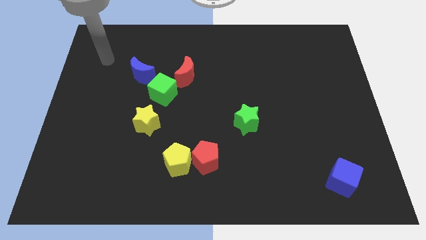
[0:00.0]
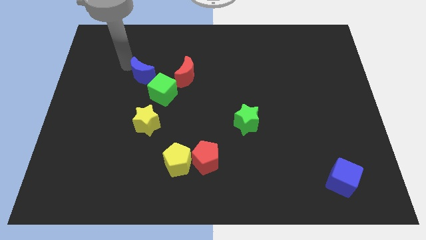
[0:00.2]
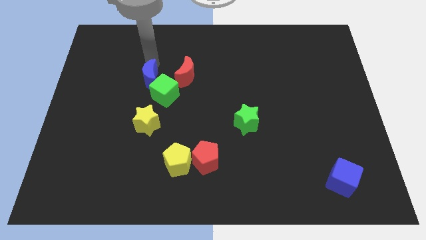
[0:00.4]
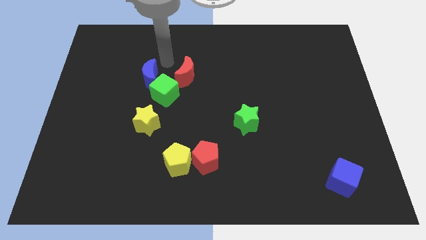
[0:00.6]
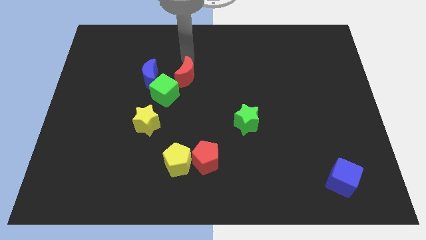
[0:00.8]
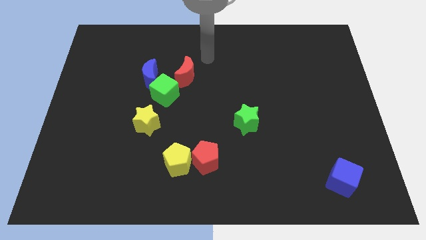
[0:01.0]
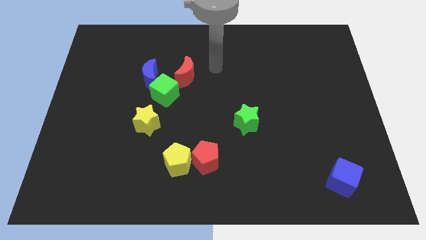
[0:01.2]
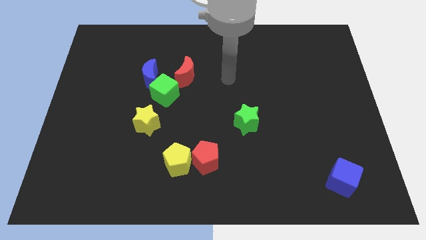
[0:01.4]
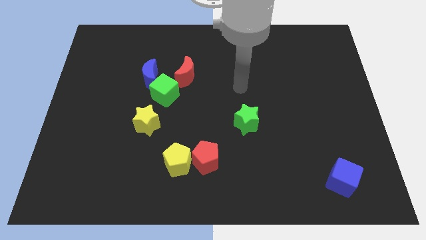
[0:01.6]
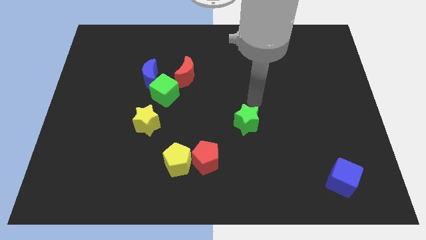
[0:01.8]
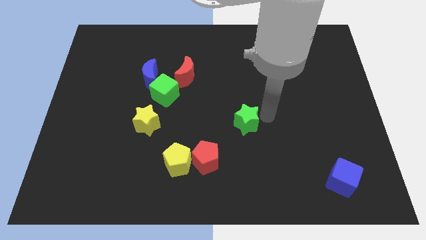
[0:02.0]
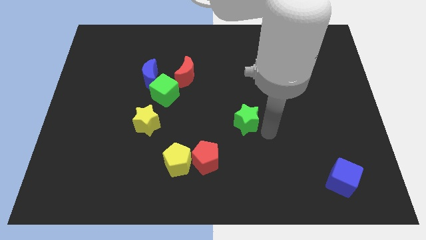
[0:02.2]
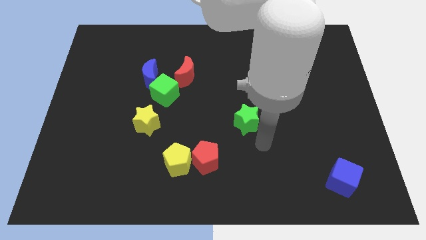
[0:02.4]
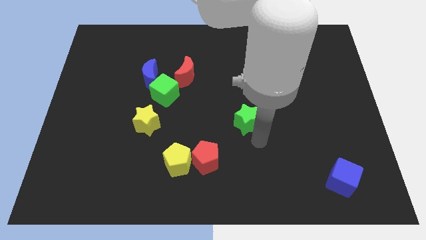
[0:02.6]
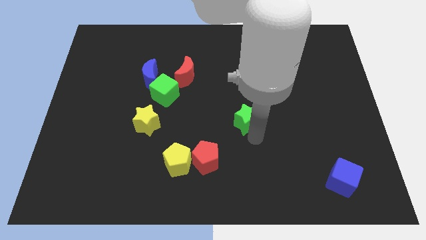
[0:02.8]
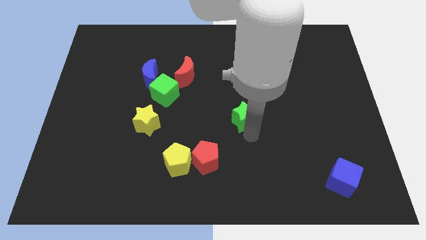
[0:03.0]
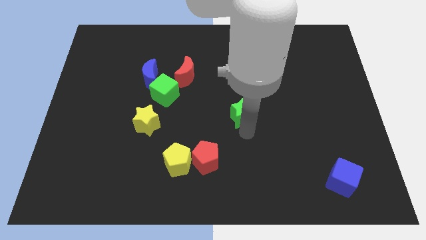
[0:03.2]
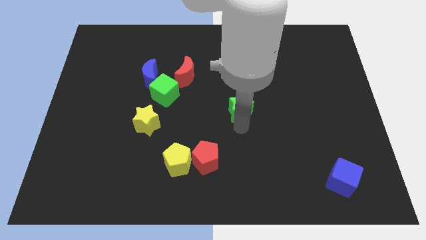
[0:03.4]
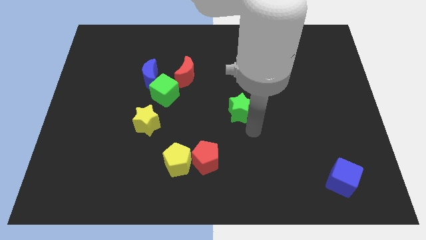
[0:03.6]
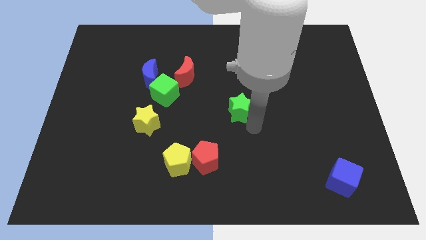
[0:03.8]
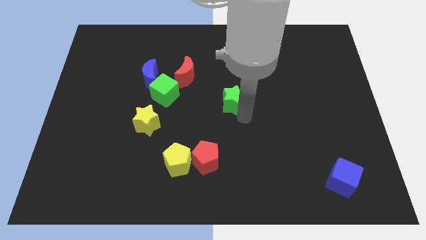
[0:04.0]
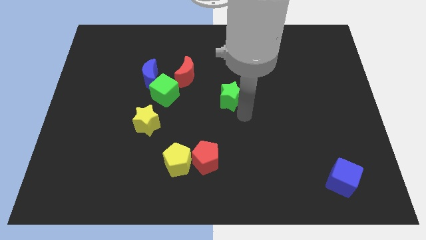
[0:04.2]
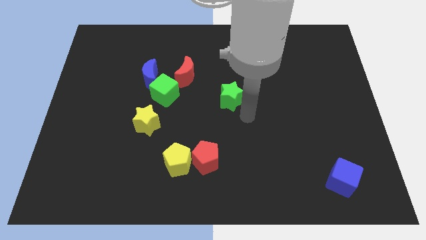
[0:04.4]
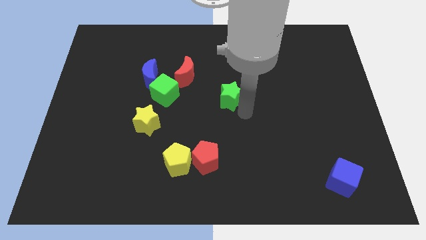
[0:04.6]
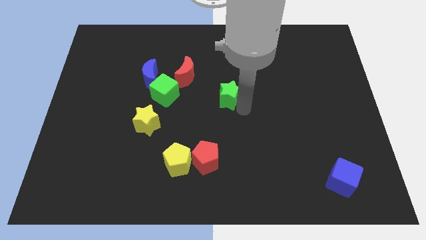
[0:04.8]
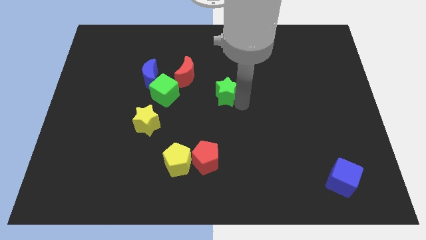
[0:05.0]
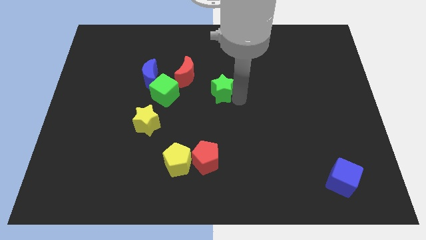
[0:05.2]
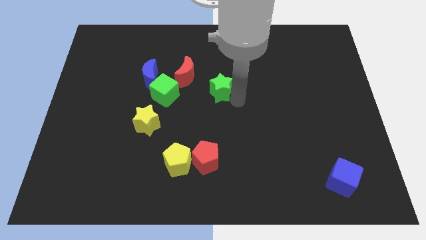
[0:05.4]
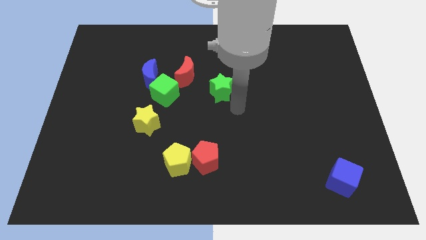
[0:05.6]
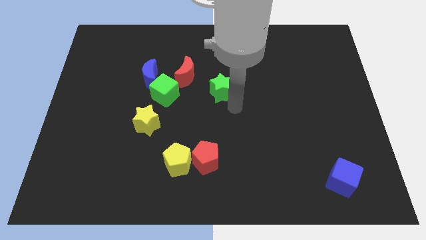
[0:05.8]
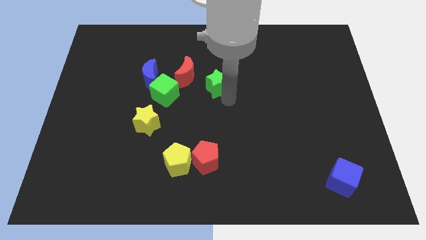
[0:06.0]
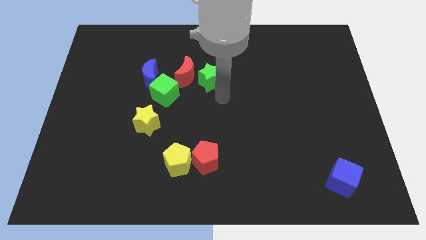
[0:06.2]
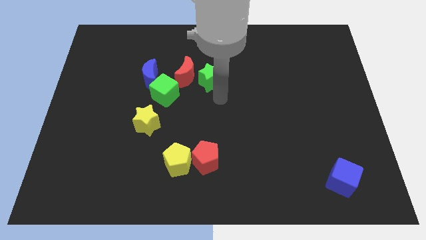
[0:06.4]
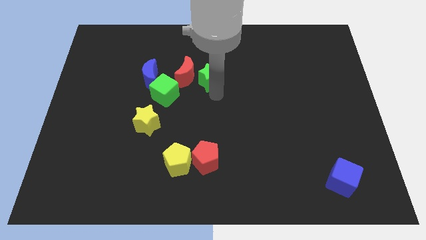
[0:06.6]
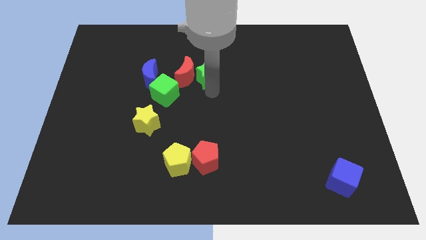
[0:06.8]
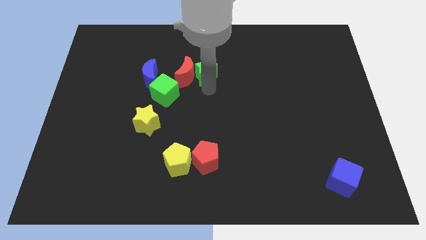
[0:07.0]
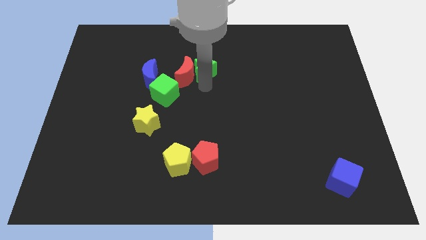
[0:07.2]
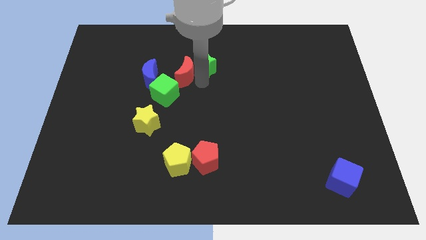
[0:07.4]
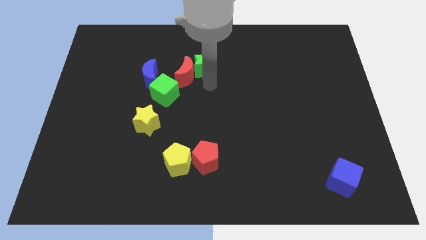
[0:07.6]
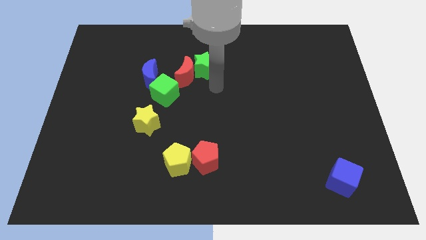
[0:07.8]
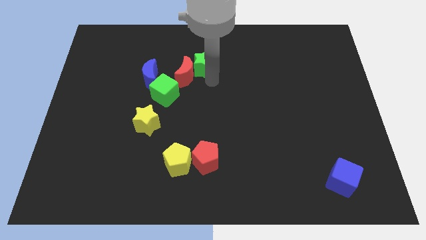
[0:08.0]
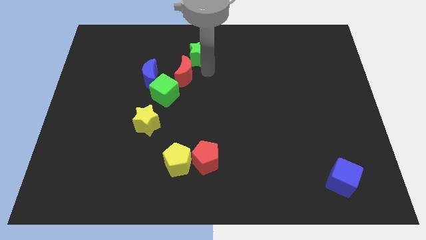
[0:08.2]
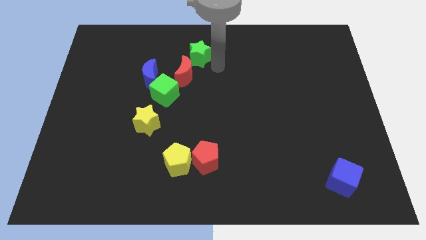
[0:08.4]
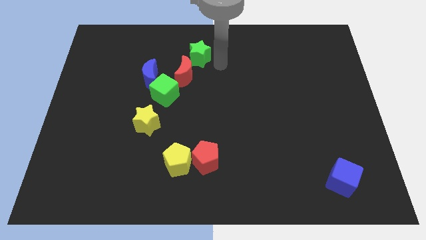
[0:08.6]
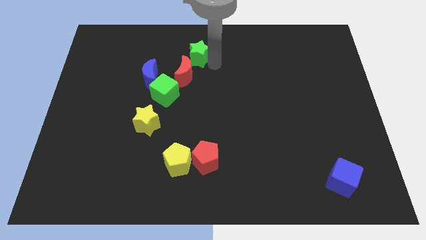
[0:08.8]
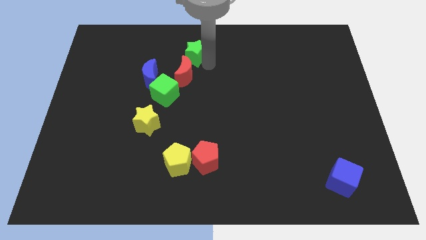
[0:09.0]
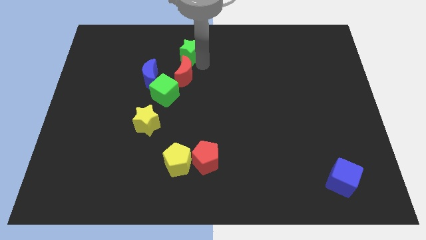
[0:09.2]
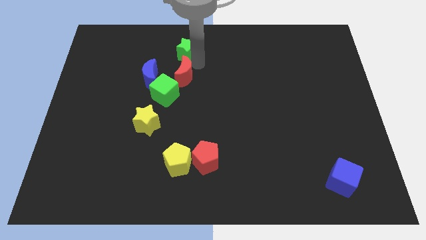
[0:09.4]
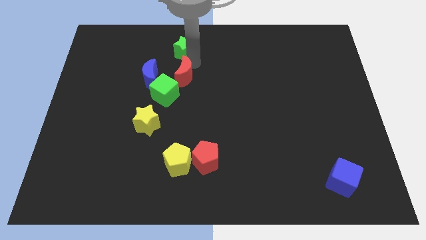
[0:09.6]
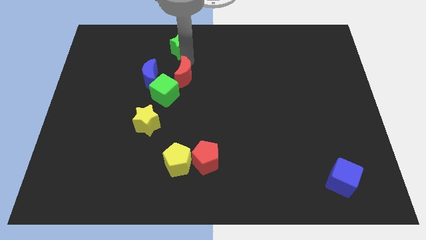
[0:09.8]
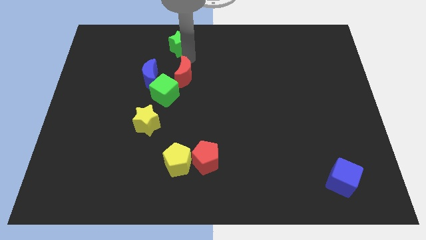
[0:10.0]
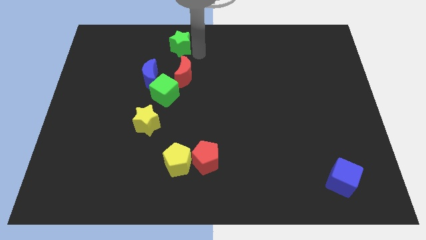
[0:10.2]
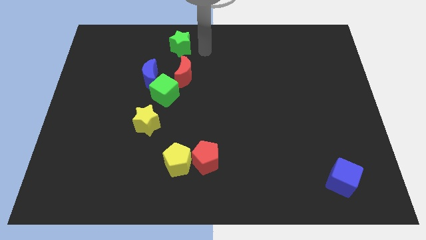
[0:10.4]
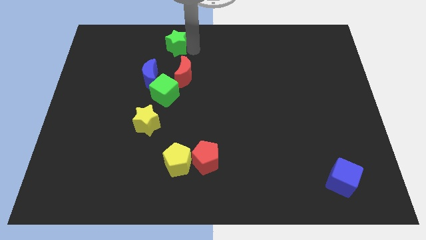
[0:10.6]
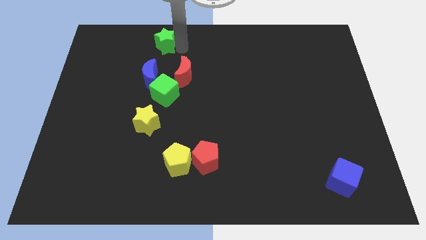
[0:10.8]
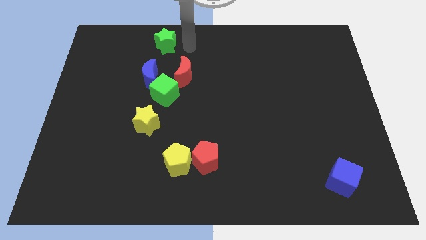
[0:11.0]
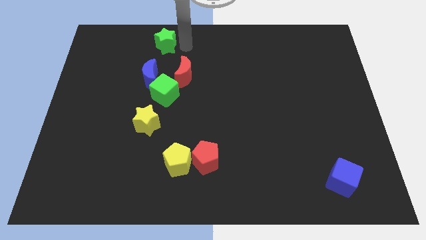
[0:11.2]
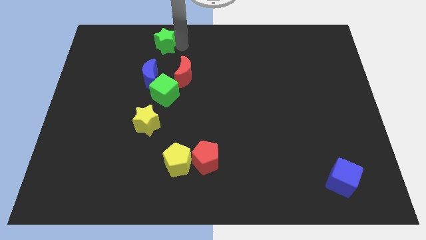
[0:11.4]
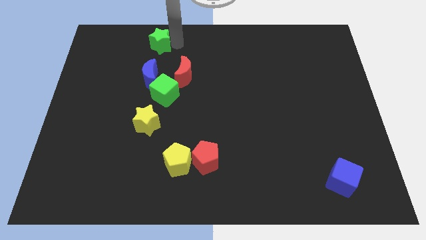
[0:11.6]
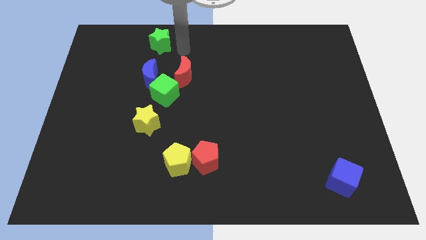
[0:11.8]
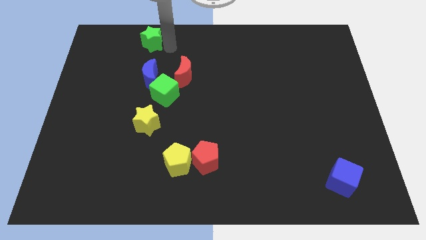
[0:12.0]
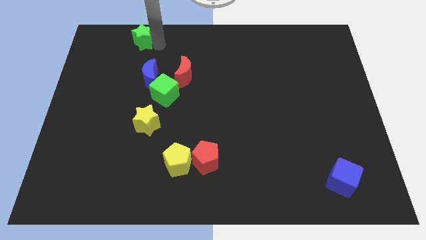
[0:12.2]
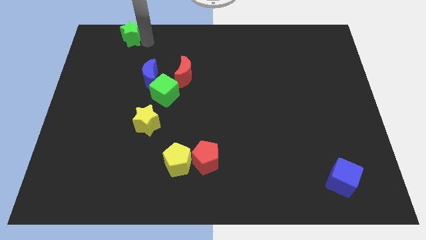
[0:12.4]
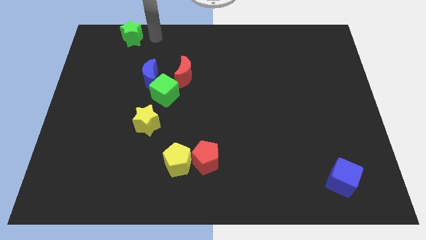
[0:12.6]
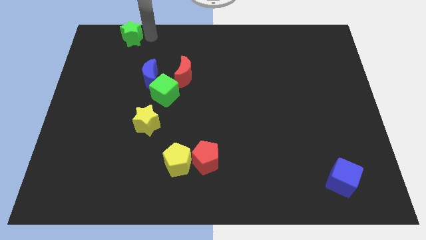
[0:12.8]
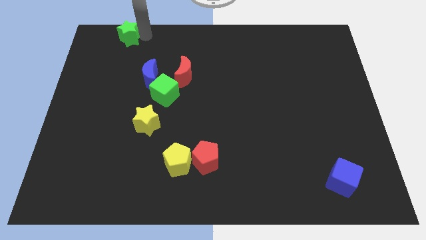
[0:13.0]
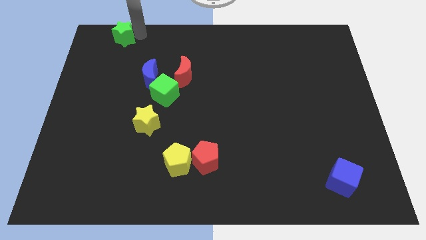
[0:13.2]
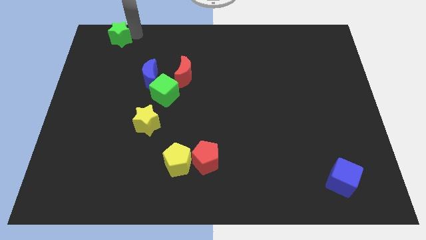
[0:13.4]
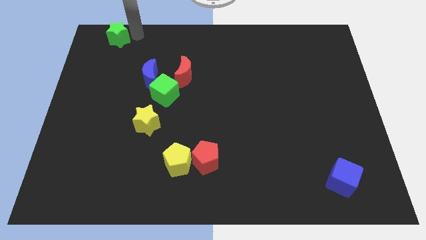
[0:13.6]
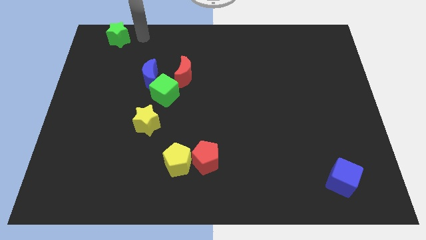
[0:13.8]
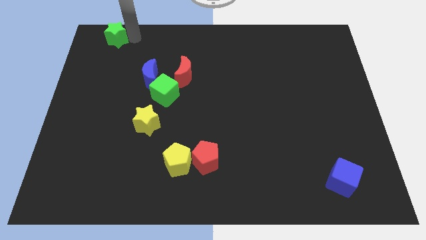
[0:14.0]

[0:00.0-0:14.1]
push the green star to the top left corner
